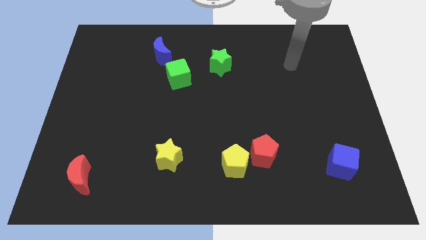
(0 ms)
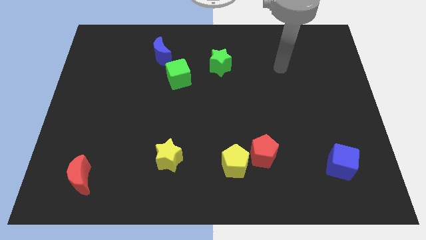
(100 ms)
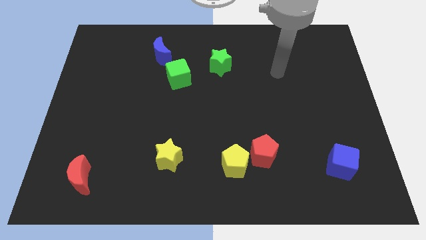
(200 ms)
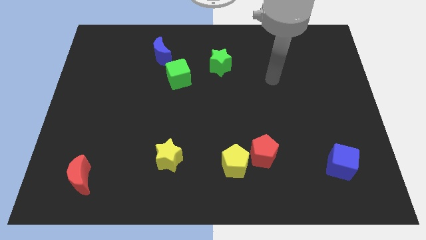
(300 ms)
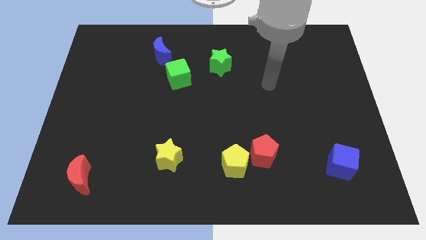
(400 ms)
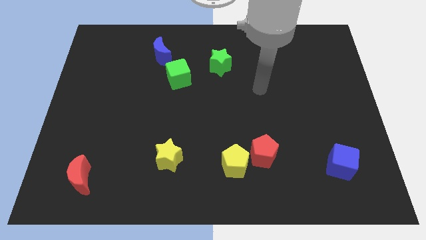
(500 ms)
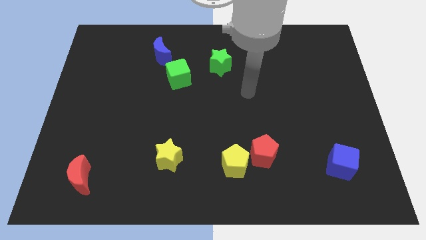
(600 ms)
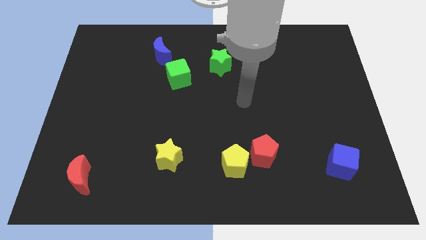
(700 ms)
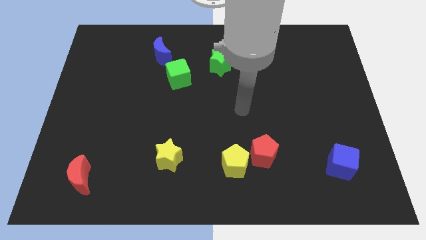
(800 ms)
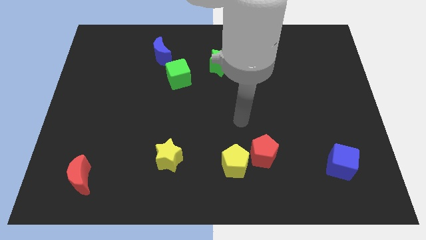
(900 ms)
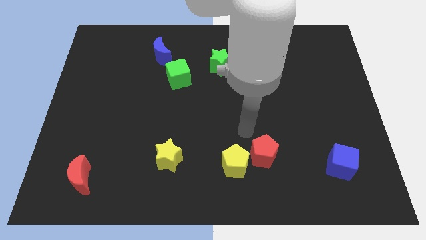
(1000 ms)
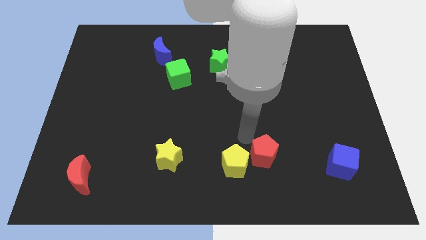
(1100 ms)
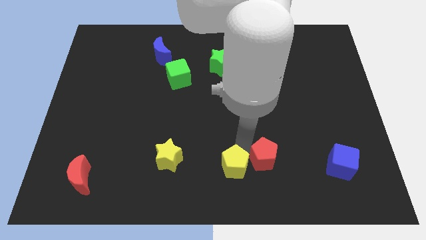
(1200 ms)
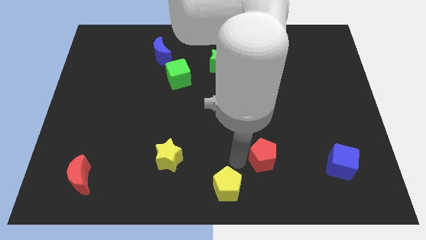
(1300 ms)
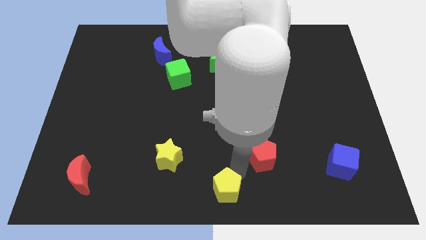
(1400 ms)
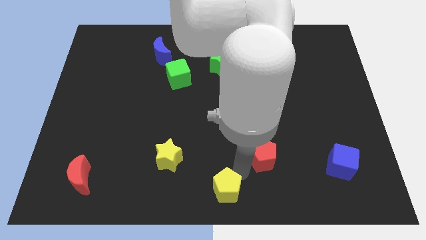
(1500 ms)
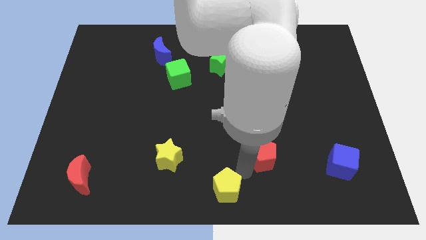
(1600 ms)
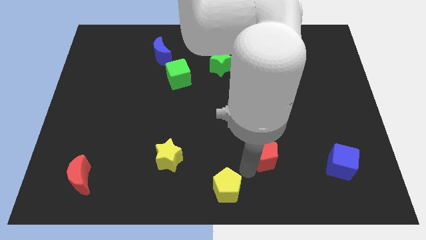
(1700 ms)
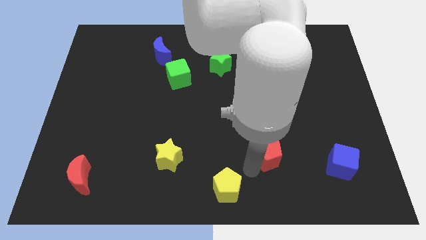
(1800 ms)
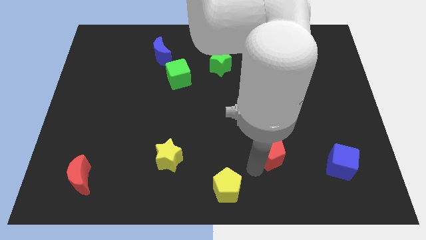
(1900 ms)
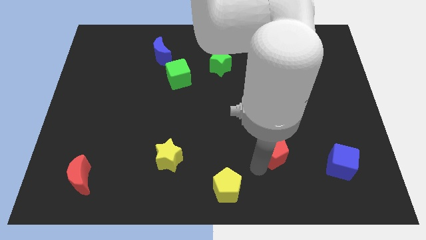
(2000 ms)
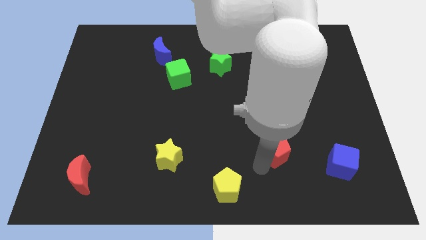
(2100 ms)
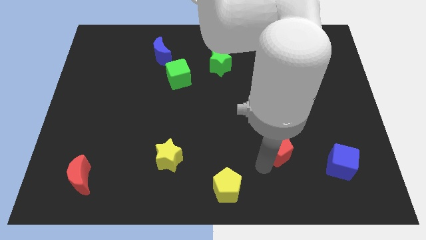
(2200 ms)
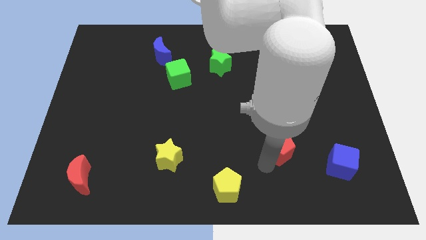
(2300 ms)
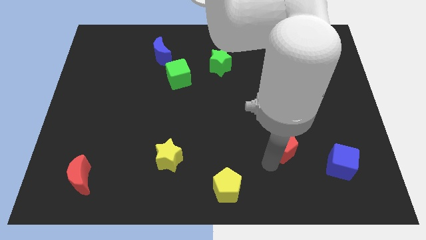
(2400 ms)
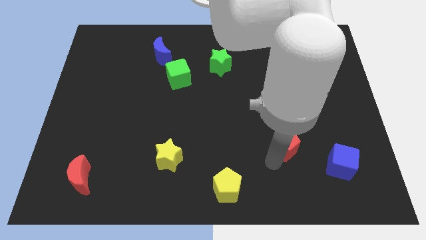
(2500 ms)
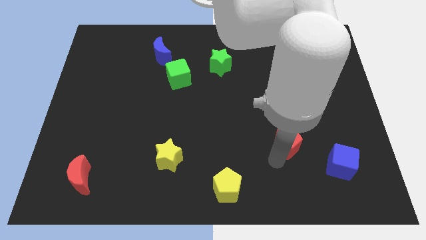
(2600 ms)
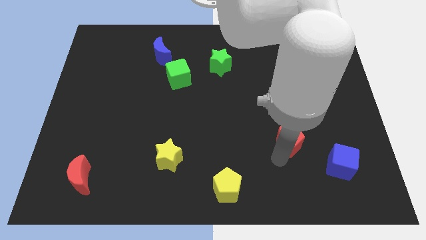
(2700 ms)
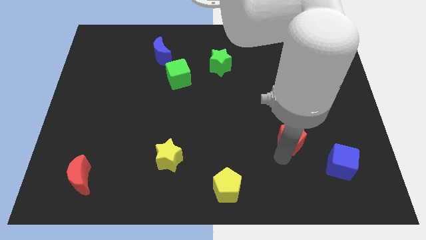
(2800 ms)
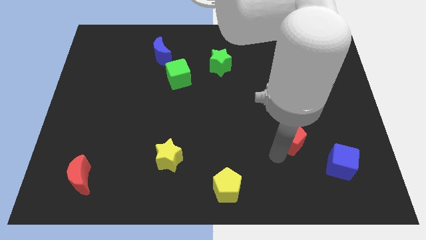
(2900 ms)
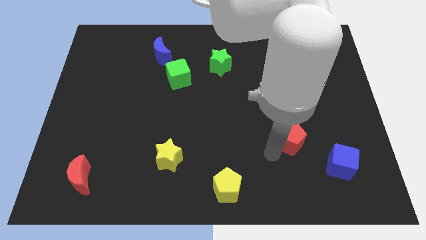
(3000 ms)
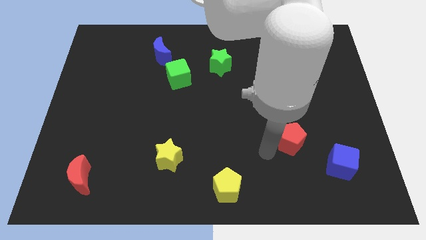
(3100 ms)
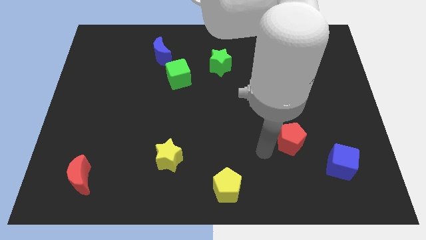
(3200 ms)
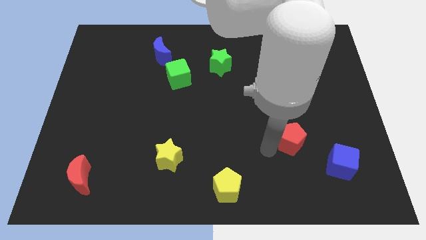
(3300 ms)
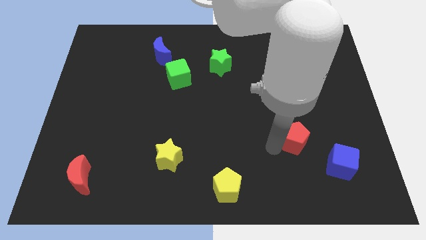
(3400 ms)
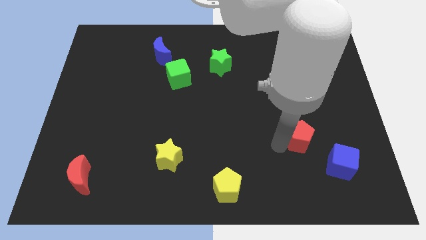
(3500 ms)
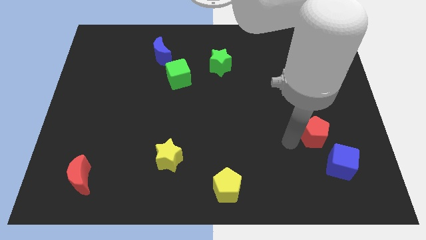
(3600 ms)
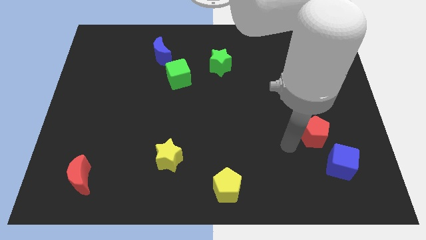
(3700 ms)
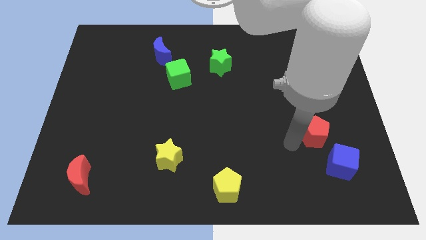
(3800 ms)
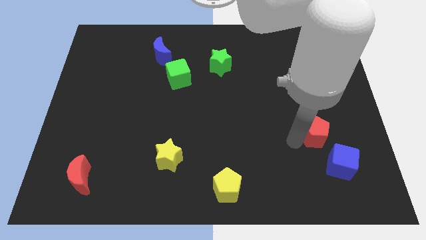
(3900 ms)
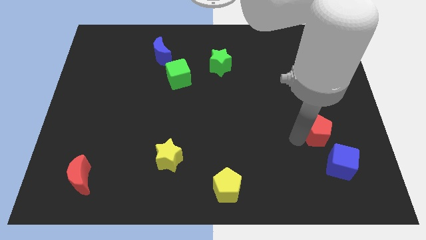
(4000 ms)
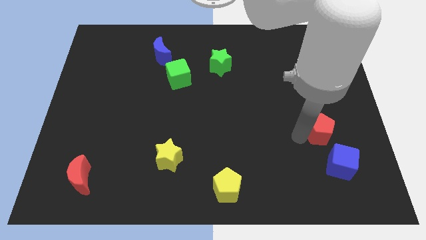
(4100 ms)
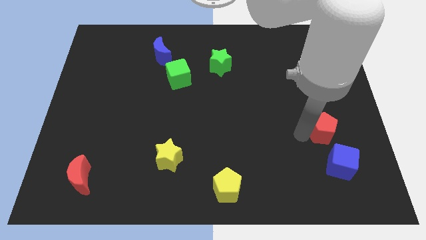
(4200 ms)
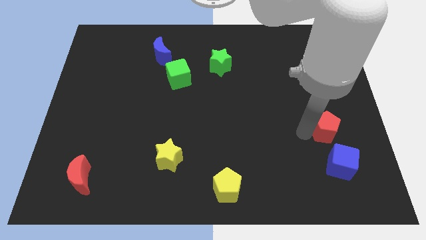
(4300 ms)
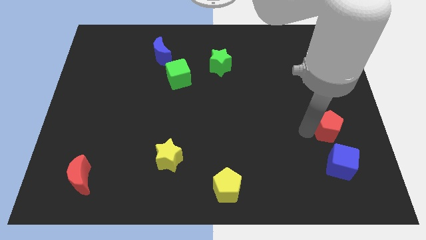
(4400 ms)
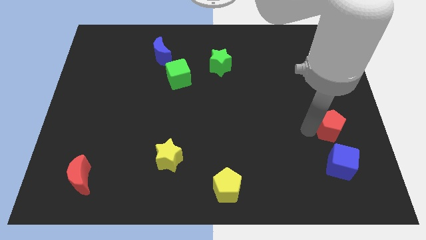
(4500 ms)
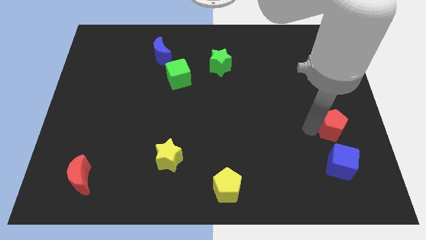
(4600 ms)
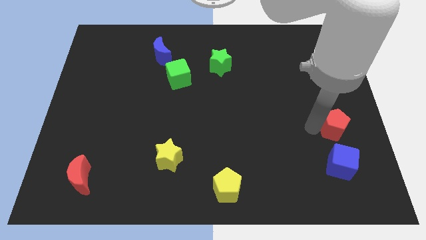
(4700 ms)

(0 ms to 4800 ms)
push the red pentagon to the right side

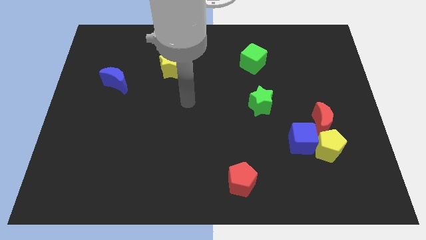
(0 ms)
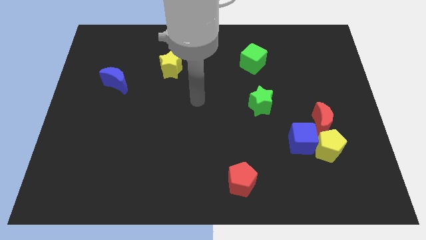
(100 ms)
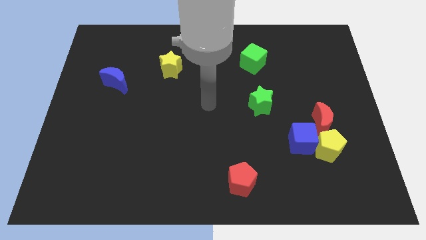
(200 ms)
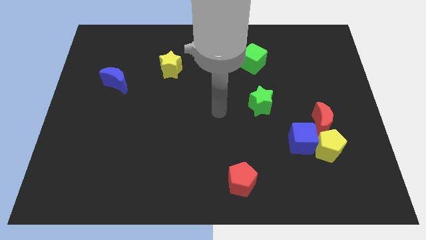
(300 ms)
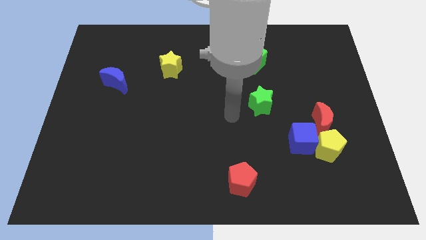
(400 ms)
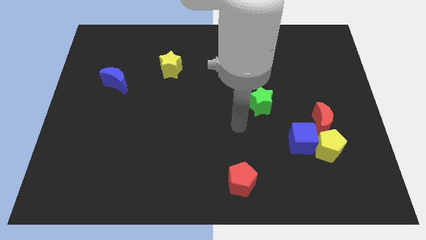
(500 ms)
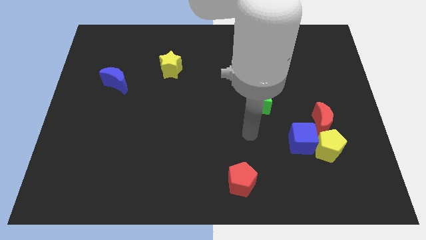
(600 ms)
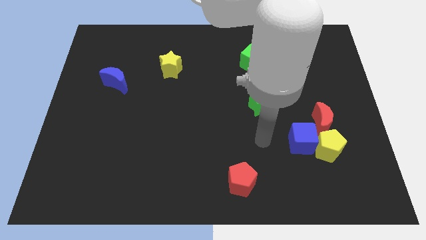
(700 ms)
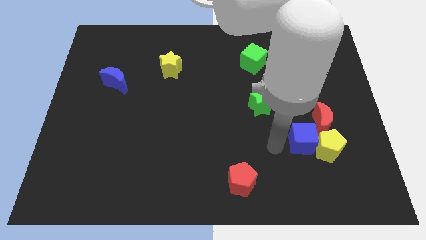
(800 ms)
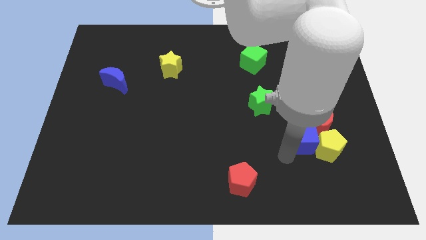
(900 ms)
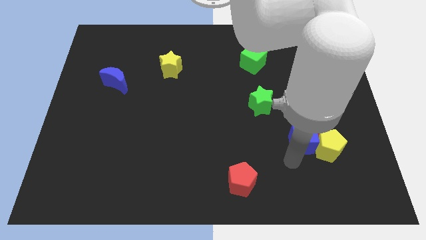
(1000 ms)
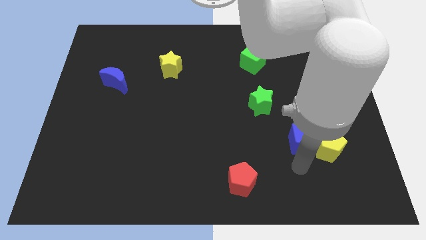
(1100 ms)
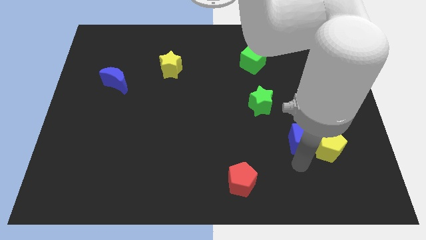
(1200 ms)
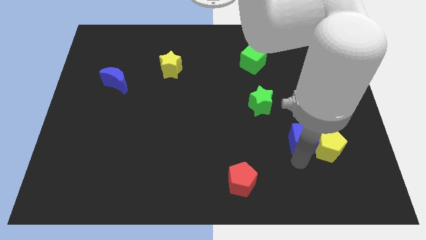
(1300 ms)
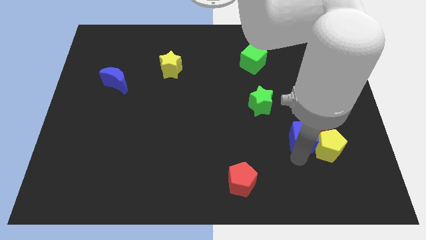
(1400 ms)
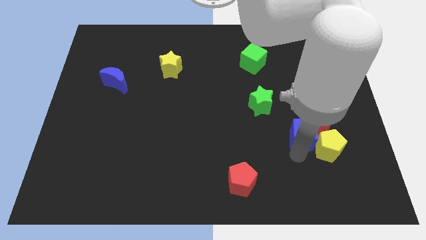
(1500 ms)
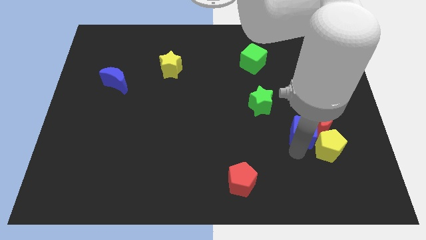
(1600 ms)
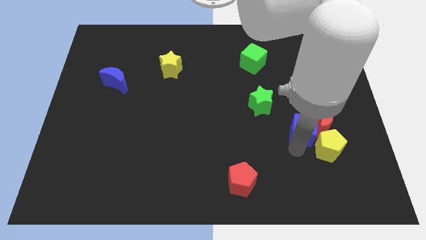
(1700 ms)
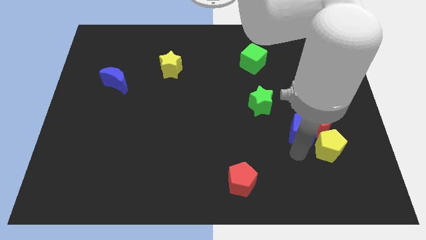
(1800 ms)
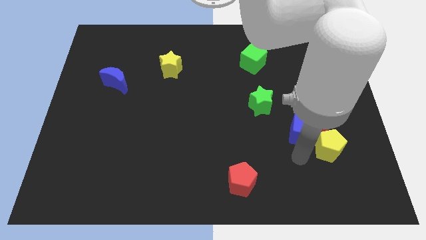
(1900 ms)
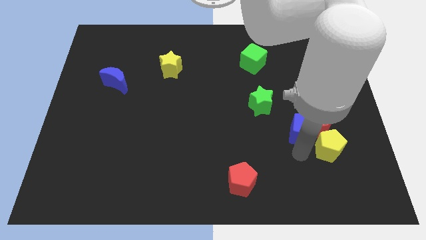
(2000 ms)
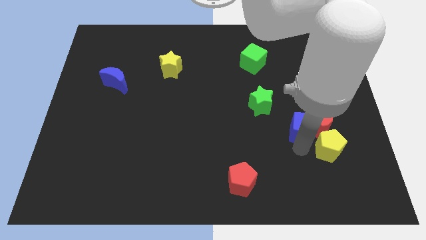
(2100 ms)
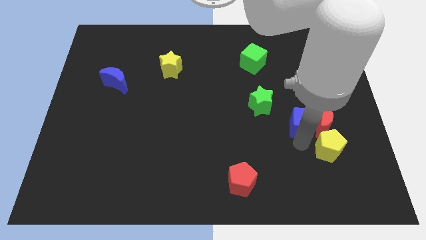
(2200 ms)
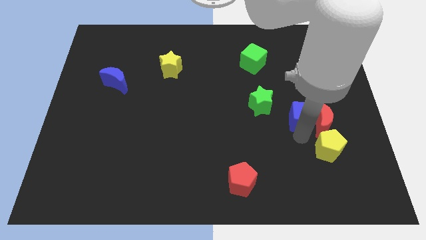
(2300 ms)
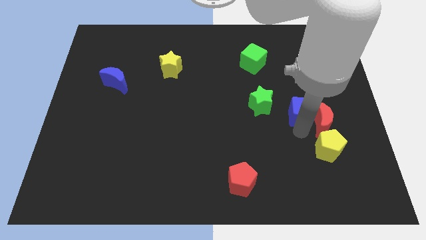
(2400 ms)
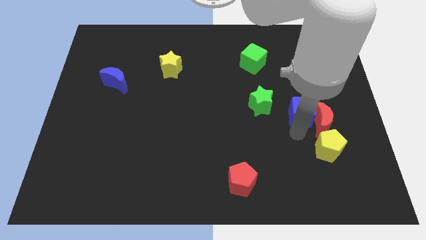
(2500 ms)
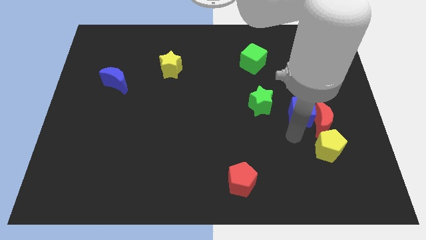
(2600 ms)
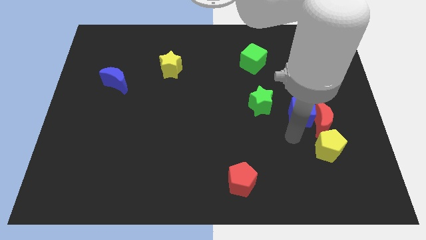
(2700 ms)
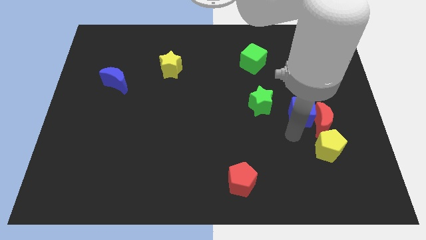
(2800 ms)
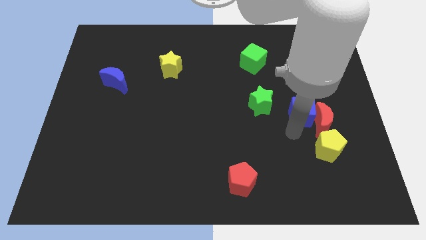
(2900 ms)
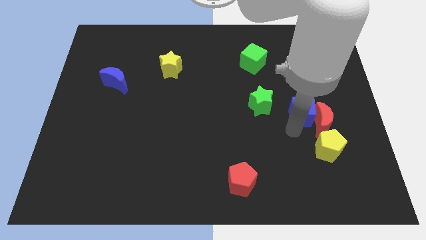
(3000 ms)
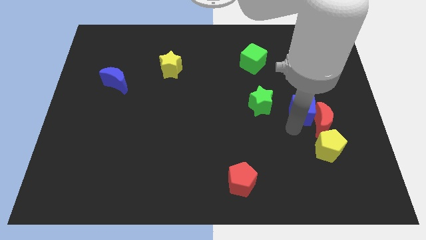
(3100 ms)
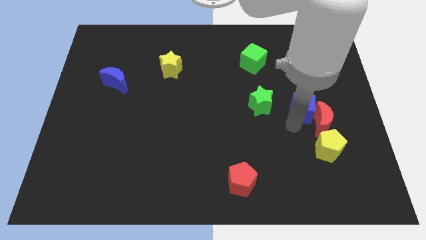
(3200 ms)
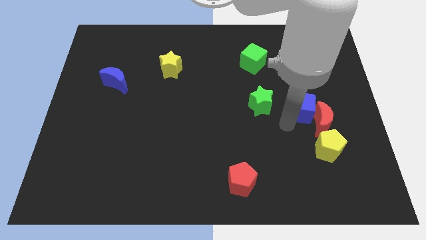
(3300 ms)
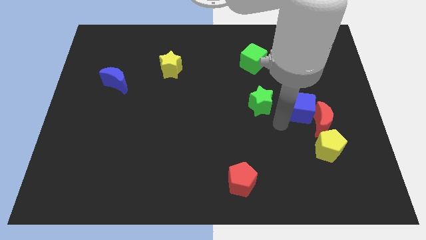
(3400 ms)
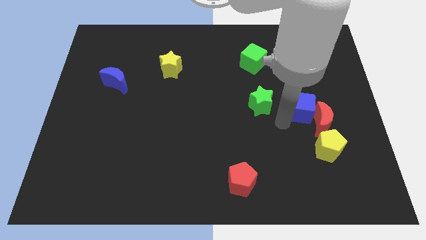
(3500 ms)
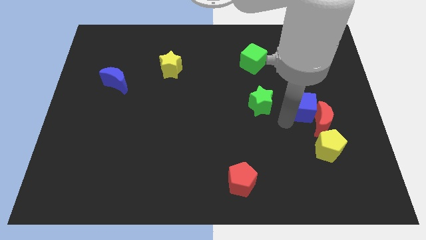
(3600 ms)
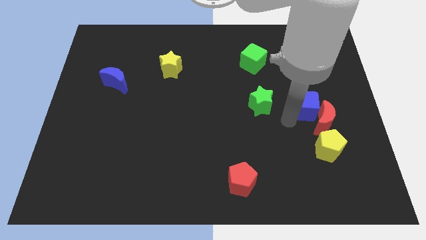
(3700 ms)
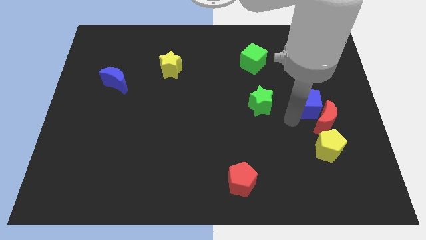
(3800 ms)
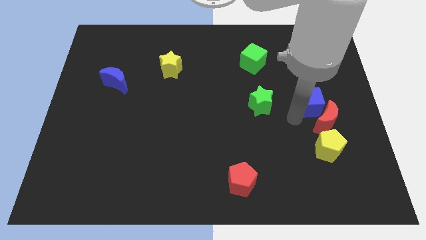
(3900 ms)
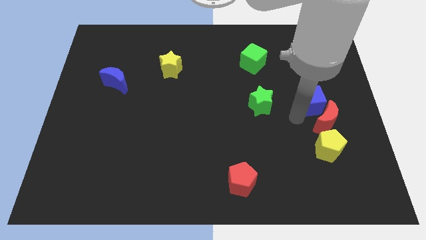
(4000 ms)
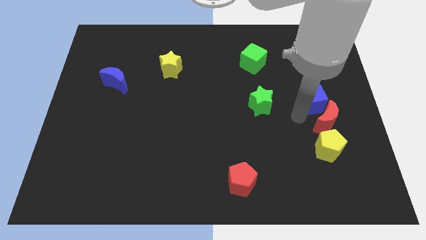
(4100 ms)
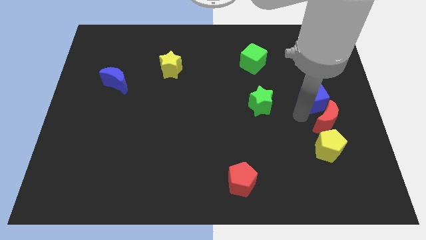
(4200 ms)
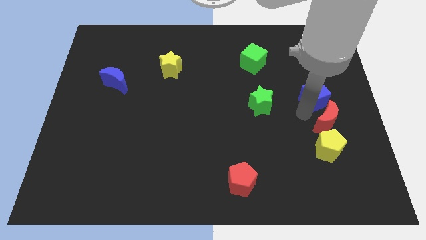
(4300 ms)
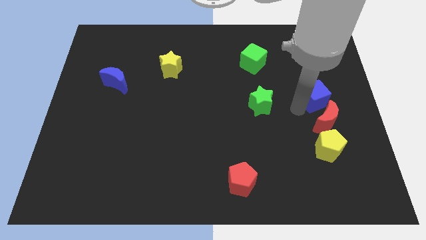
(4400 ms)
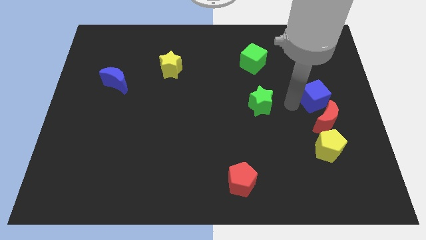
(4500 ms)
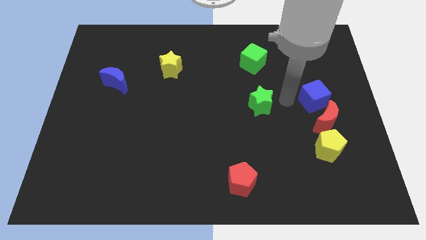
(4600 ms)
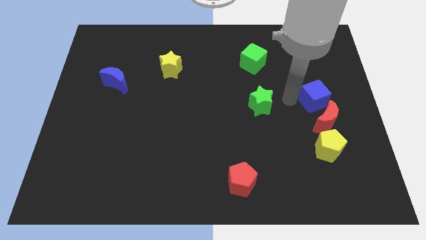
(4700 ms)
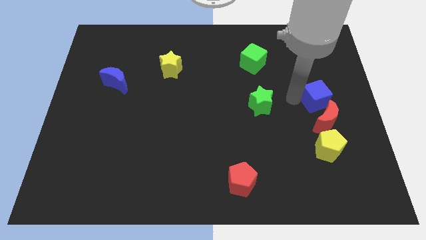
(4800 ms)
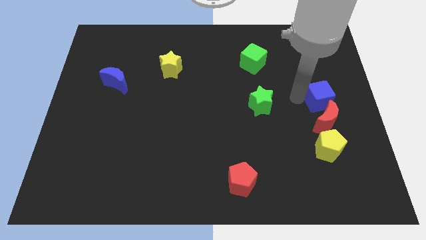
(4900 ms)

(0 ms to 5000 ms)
slide the blue cube to the right side
